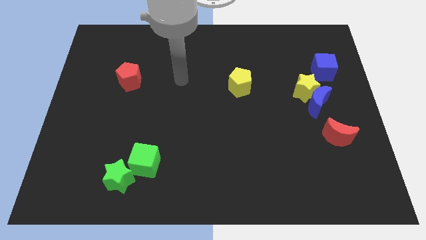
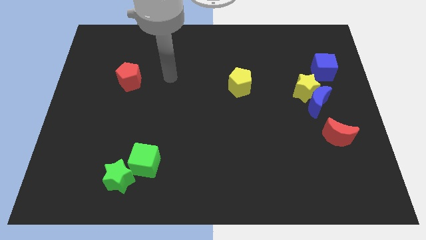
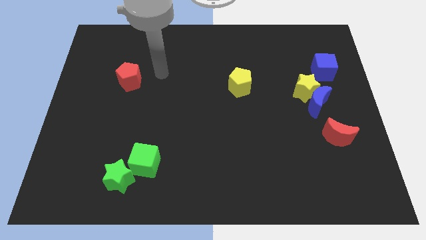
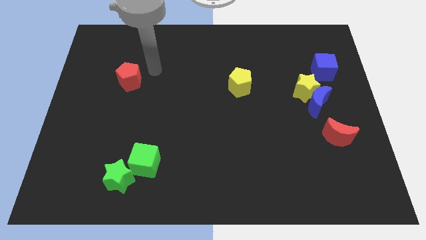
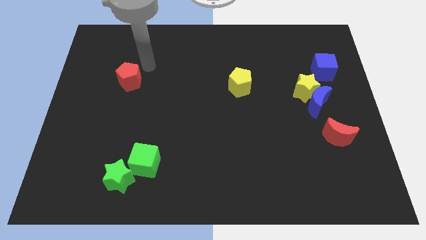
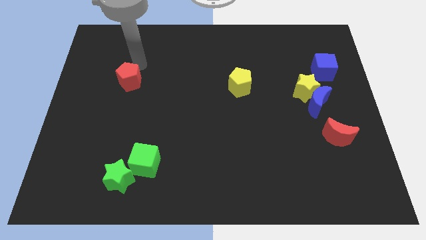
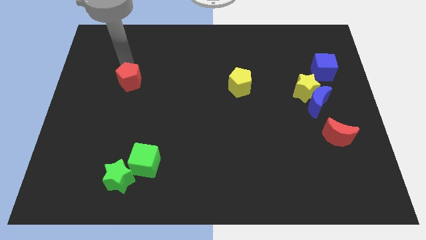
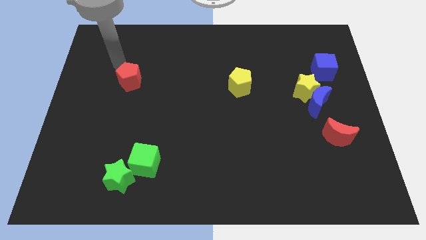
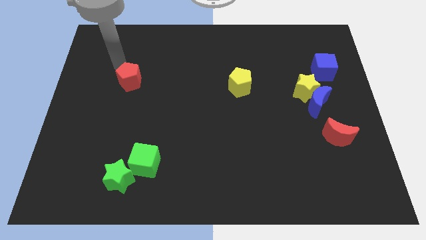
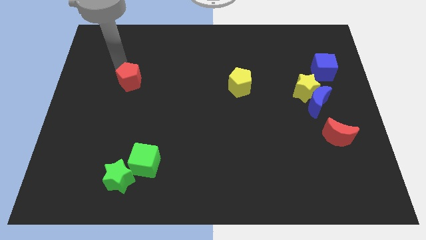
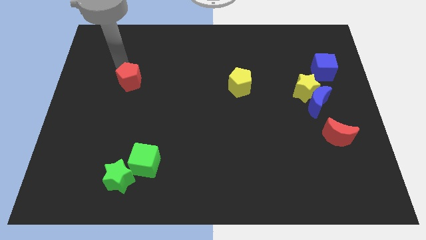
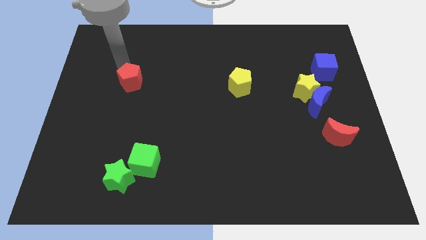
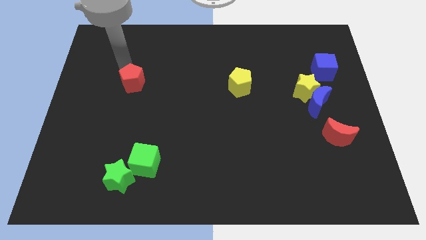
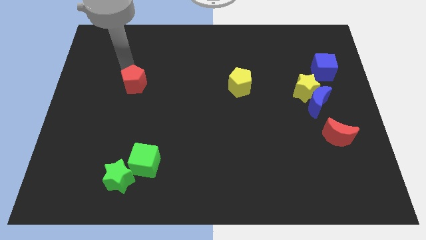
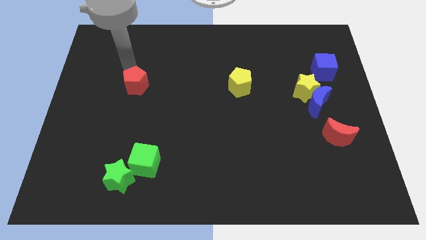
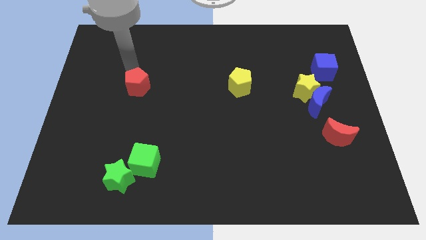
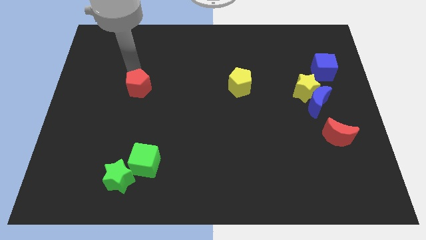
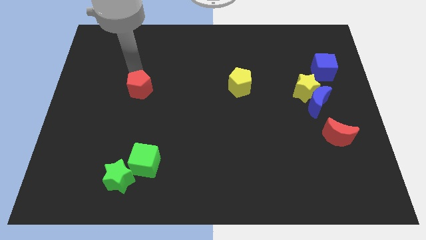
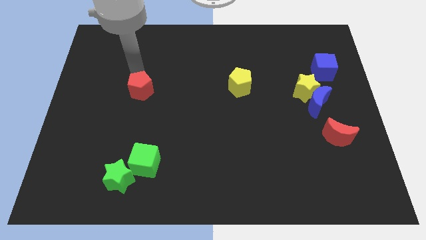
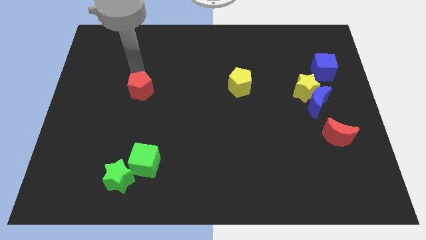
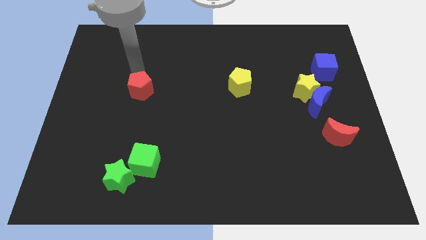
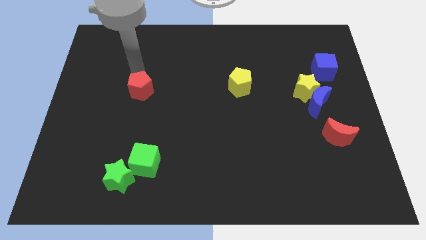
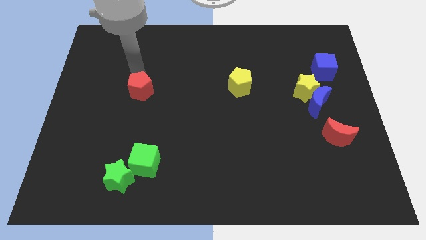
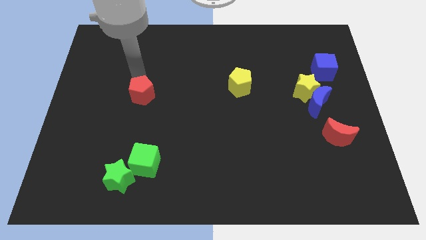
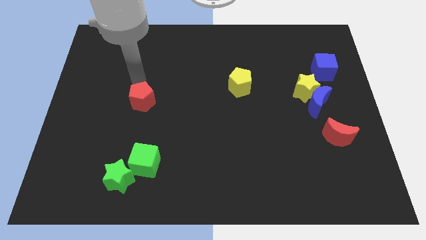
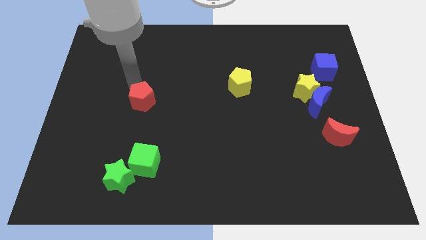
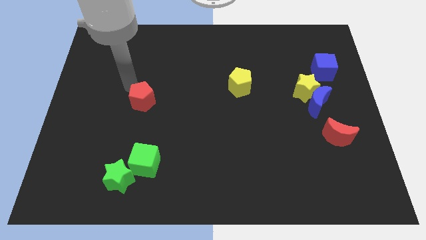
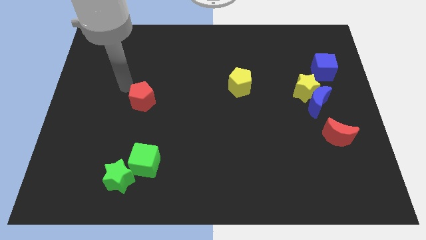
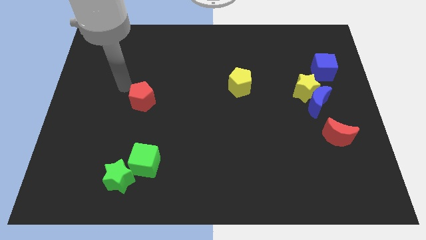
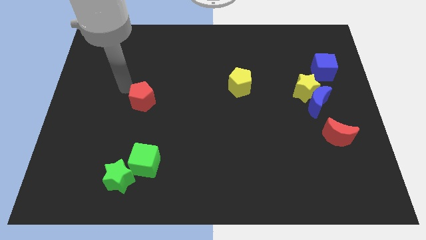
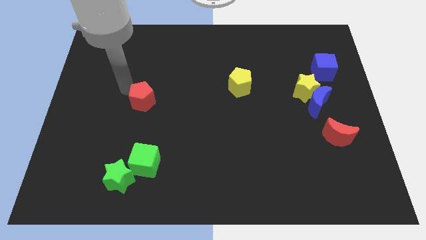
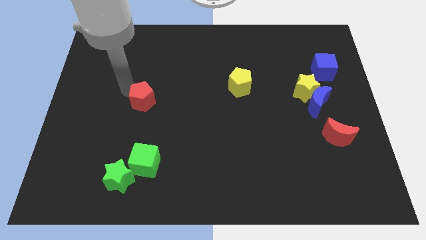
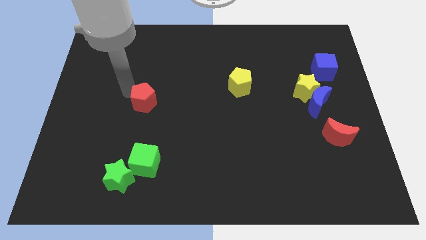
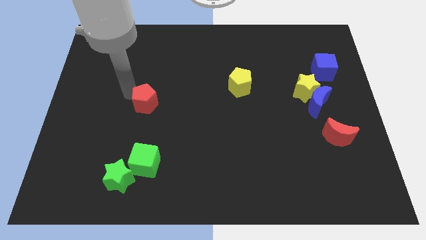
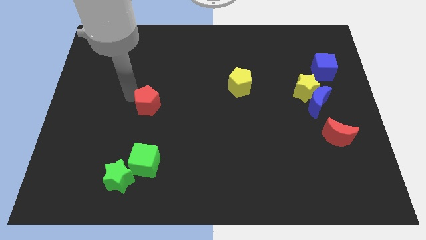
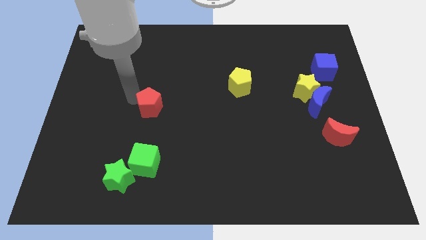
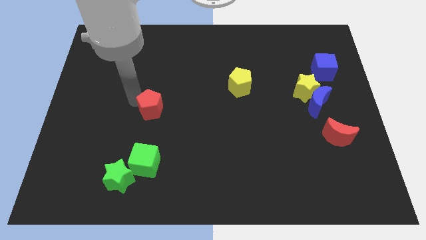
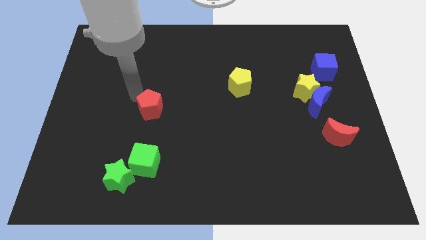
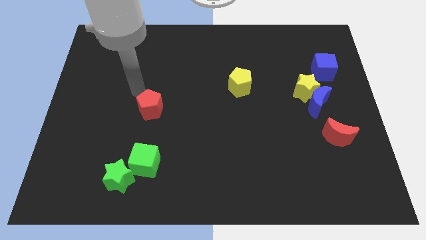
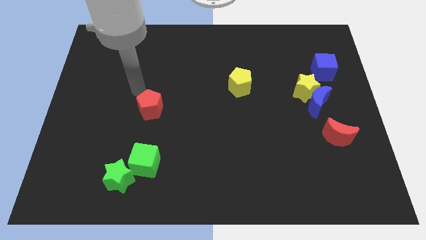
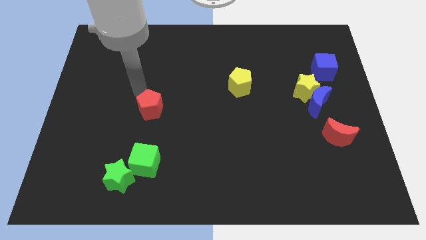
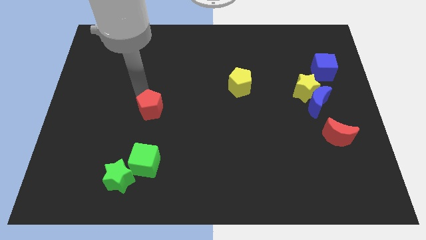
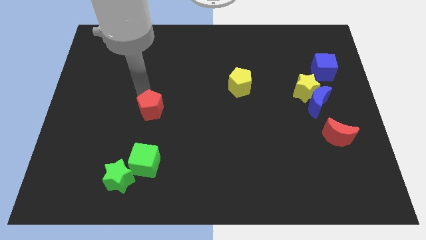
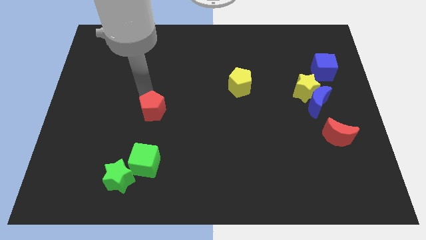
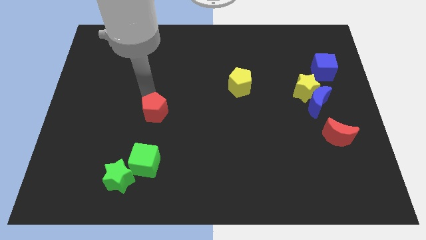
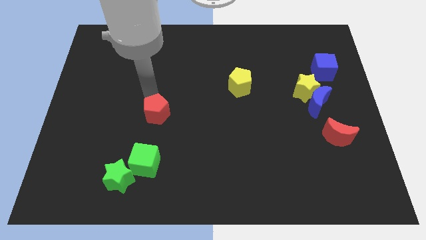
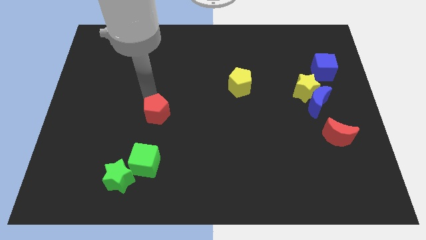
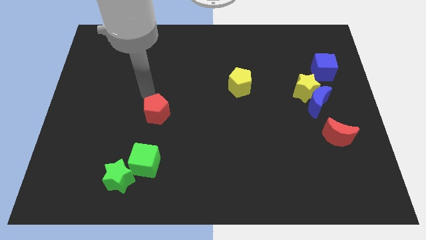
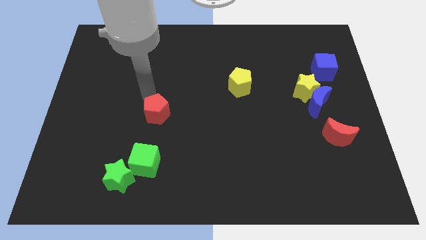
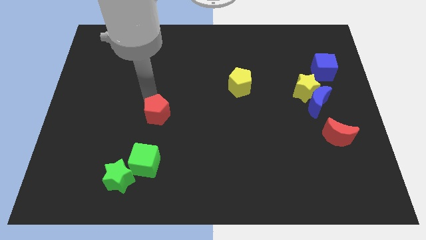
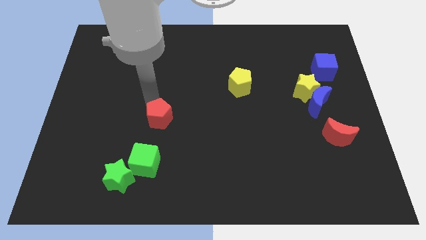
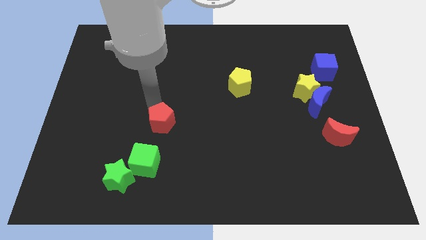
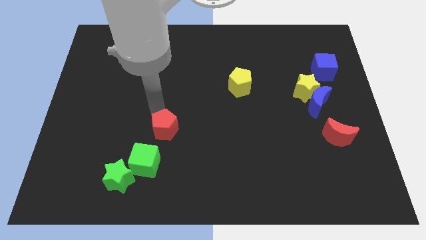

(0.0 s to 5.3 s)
slide the red pentagon to the top right of the green cube

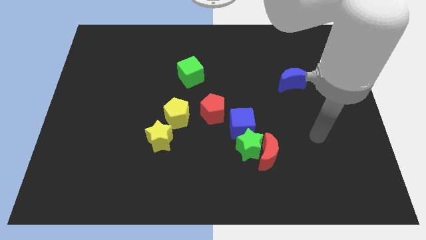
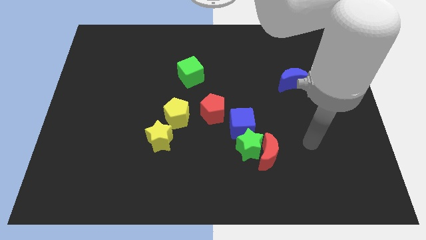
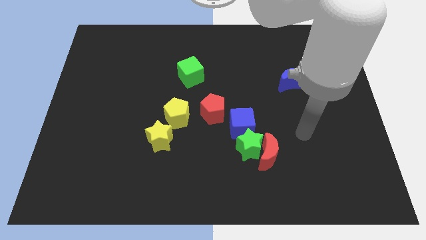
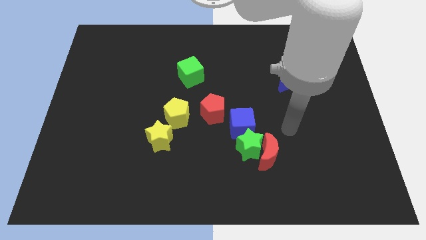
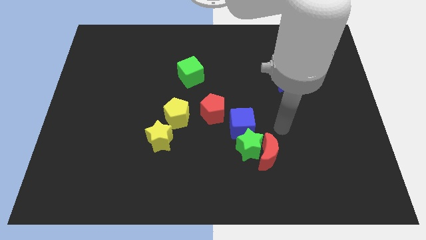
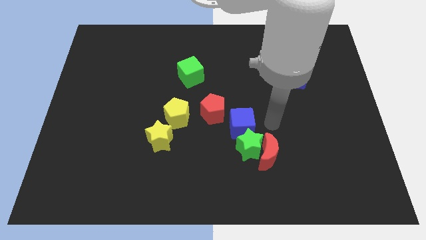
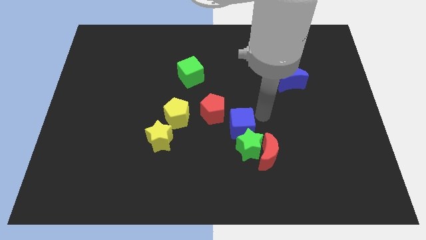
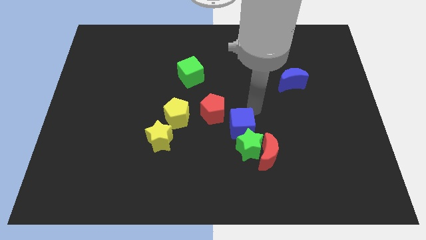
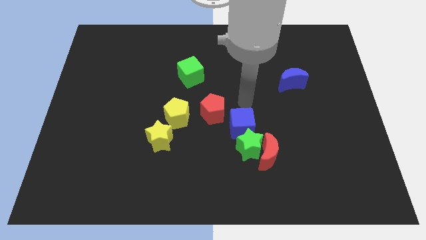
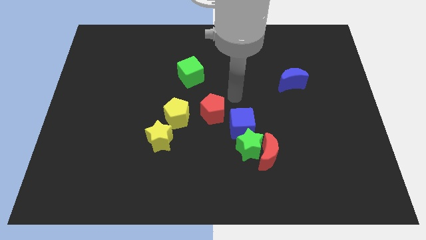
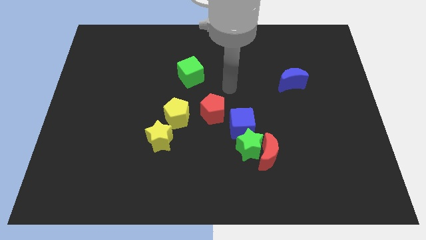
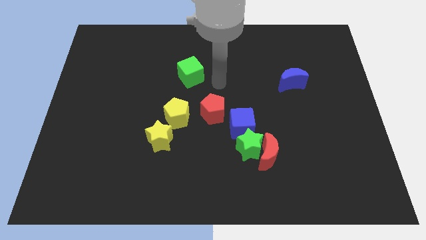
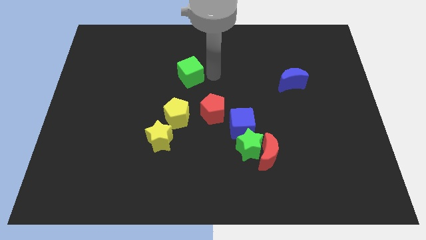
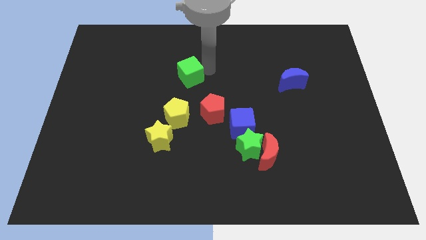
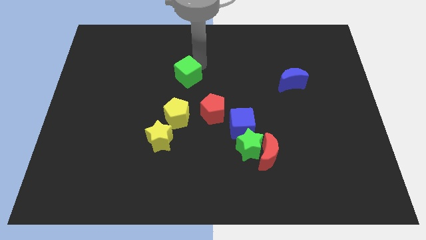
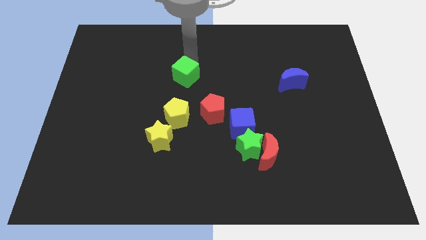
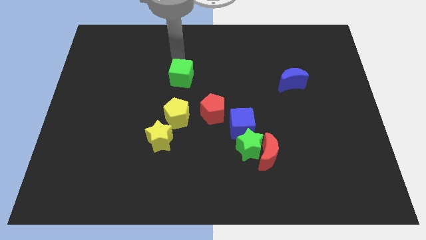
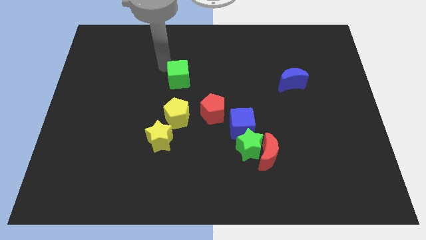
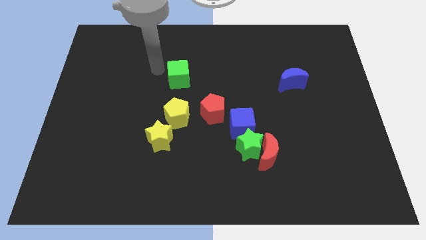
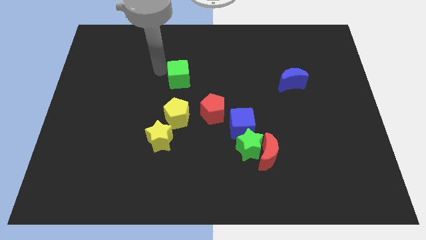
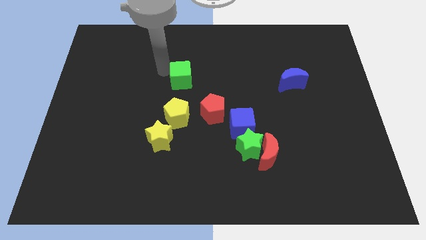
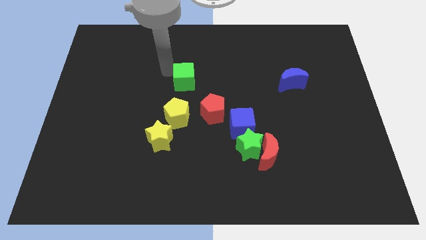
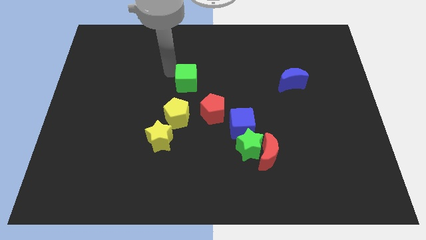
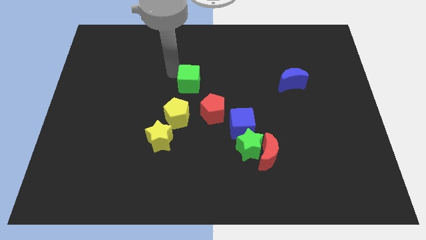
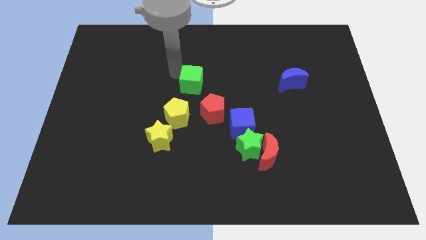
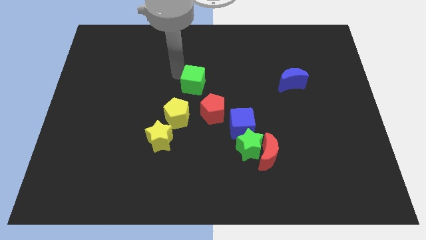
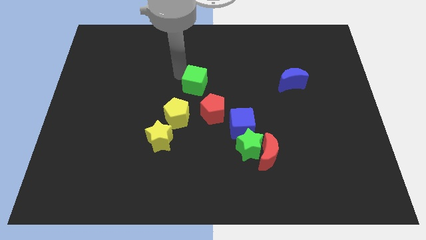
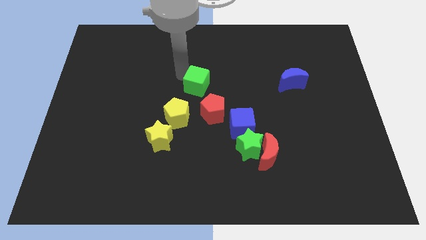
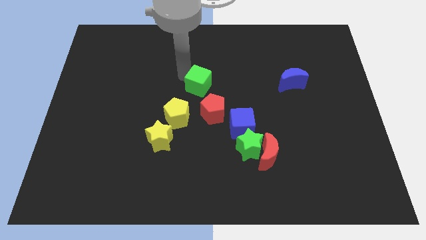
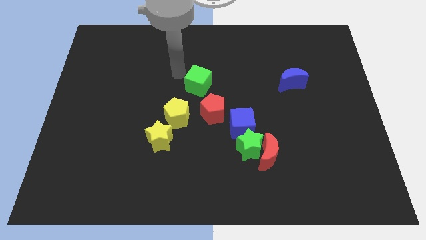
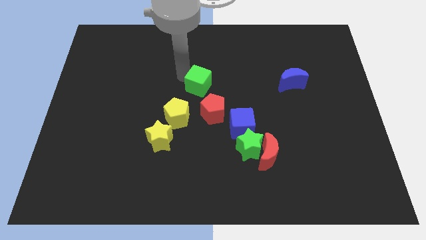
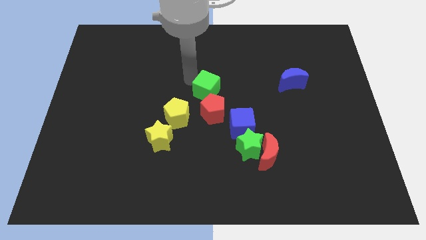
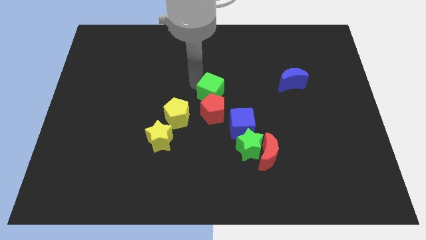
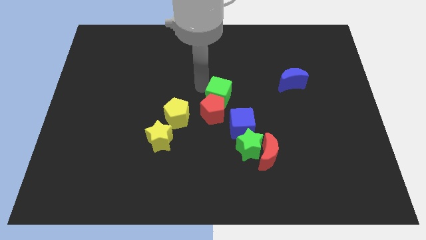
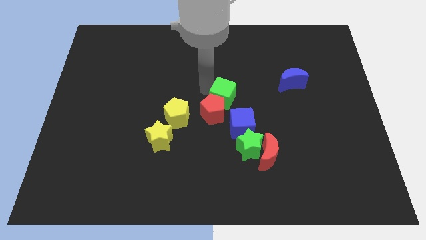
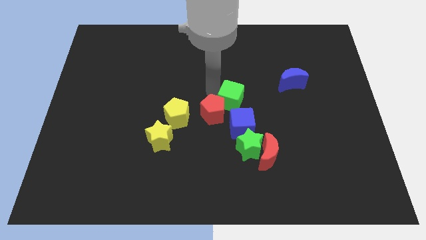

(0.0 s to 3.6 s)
push the green cube to the top side of the green star
